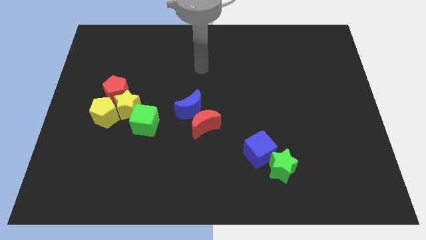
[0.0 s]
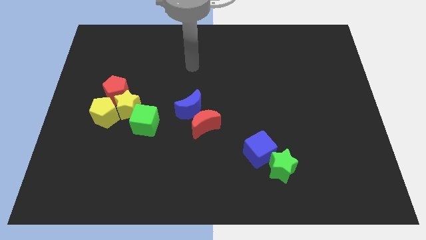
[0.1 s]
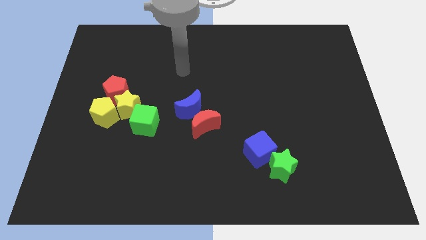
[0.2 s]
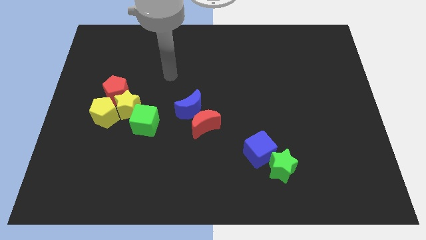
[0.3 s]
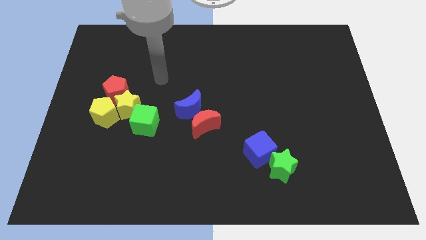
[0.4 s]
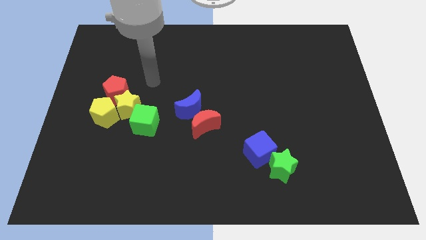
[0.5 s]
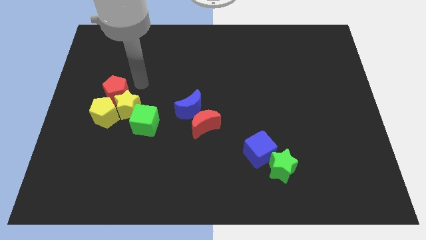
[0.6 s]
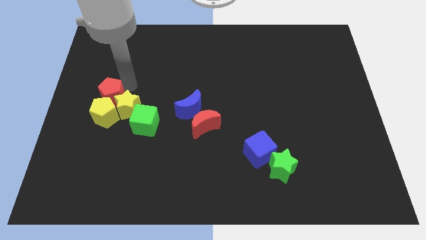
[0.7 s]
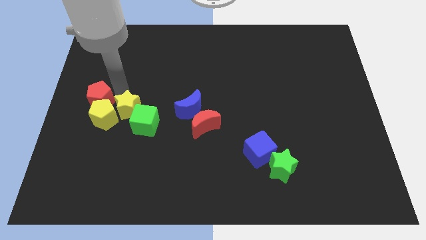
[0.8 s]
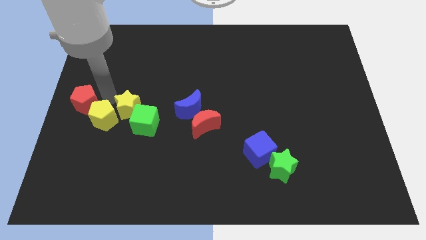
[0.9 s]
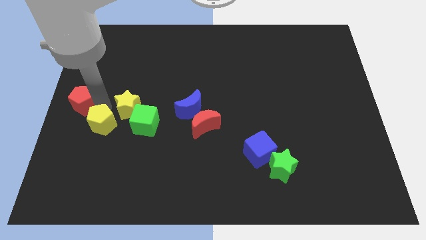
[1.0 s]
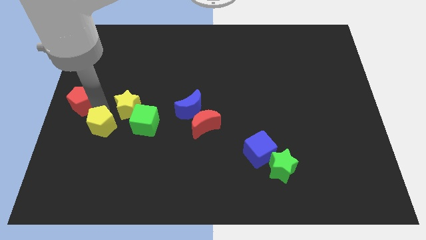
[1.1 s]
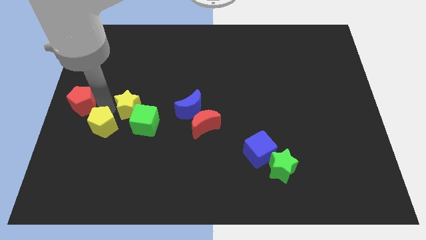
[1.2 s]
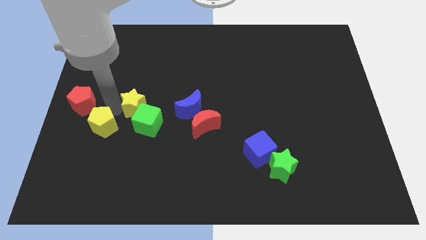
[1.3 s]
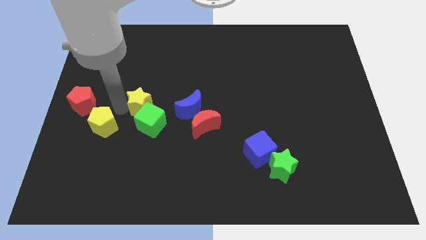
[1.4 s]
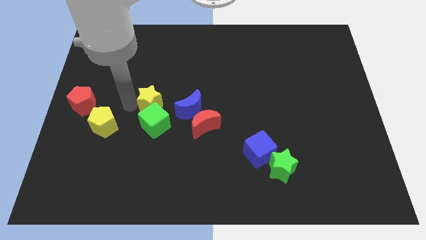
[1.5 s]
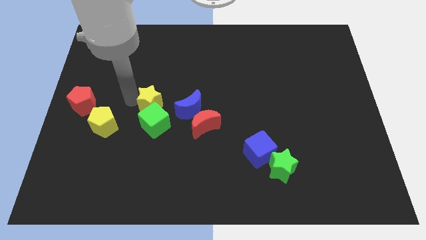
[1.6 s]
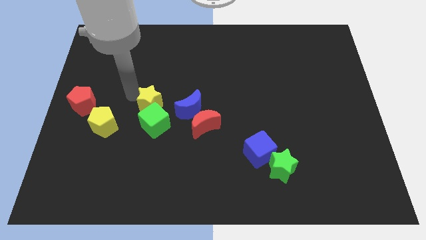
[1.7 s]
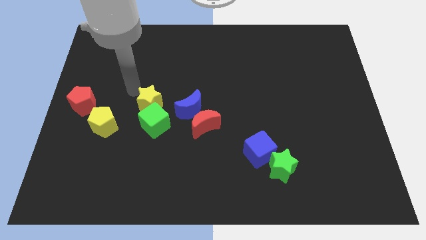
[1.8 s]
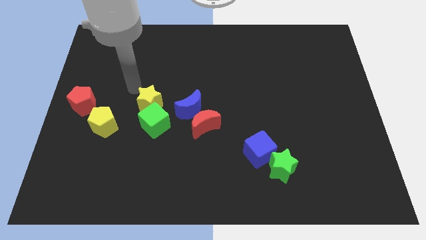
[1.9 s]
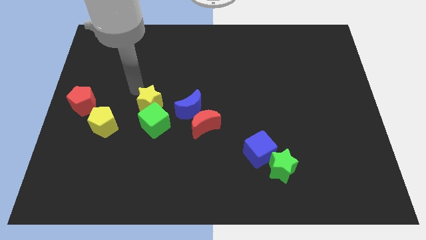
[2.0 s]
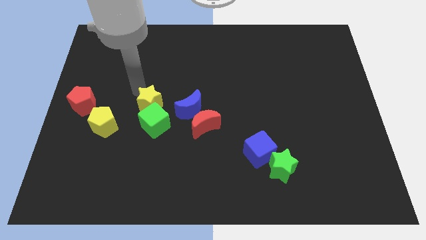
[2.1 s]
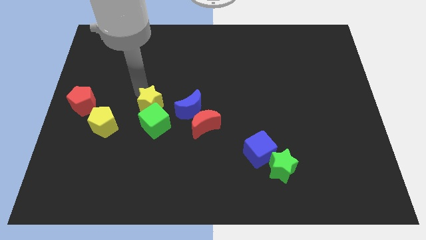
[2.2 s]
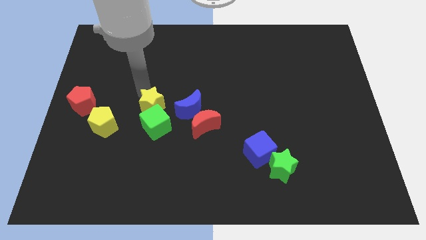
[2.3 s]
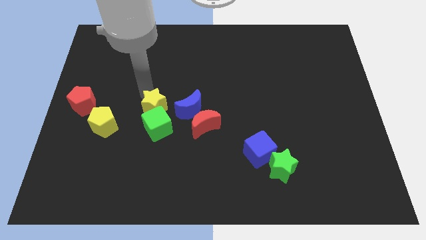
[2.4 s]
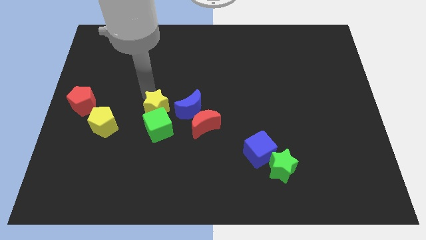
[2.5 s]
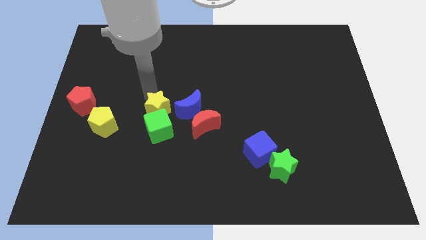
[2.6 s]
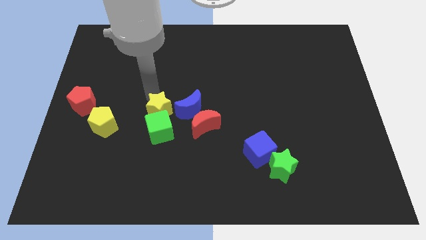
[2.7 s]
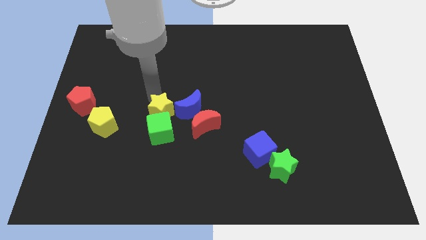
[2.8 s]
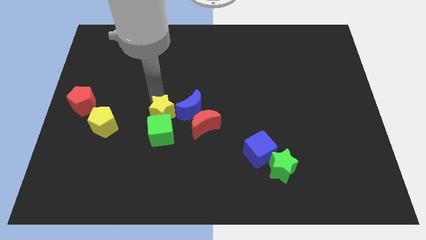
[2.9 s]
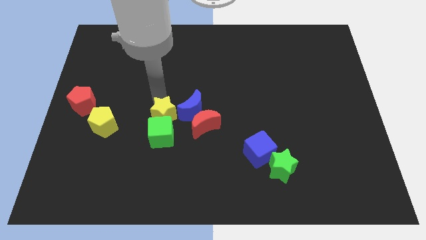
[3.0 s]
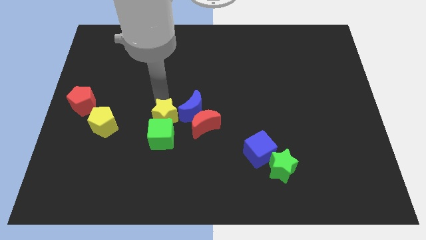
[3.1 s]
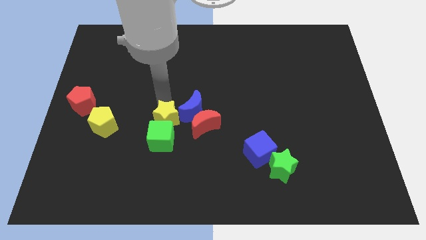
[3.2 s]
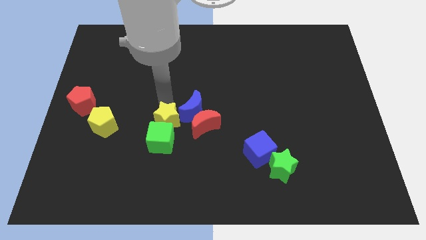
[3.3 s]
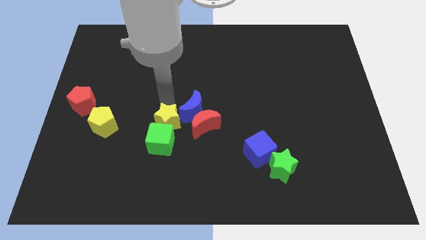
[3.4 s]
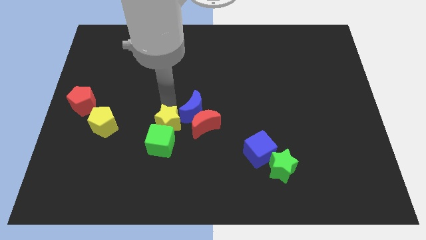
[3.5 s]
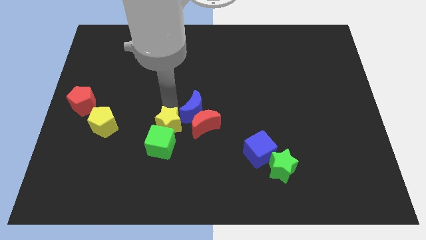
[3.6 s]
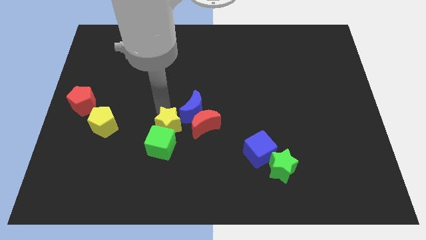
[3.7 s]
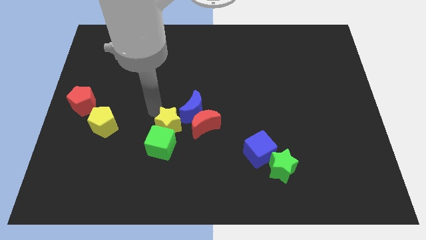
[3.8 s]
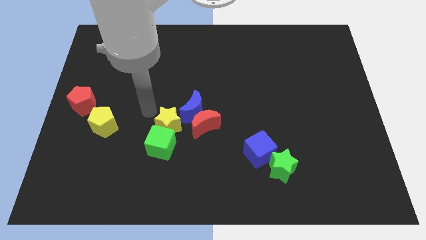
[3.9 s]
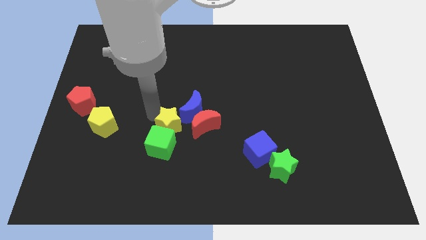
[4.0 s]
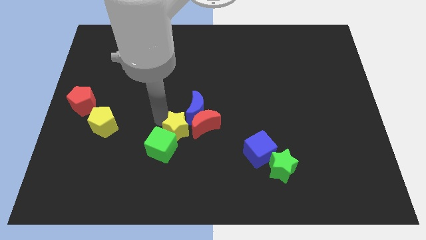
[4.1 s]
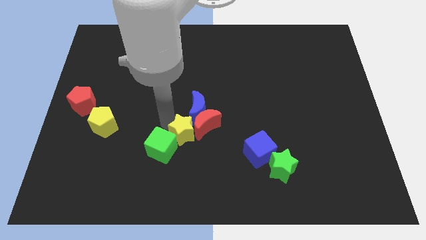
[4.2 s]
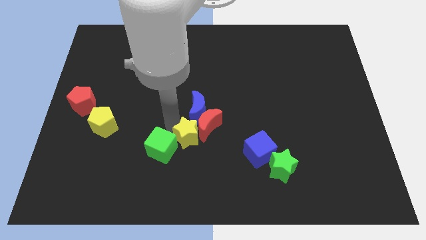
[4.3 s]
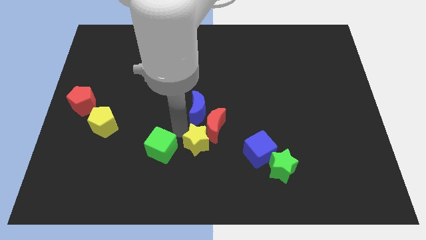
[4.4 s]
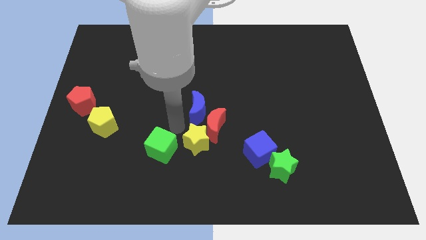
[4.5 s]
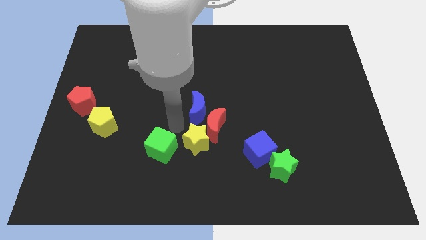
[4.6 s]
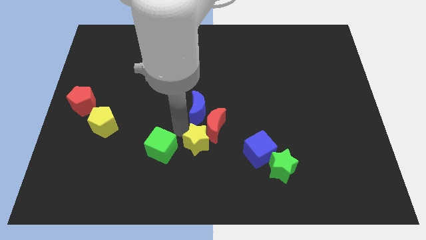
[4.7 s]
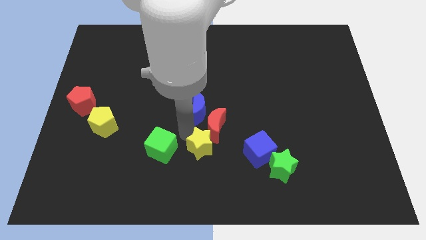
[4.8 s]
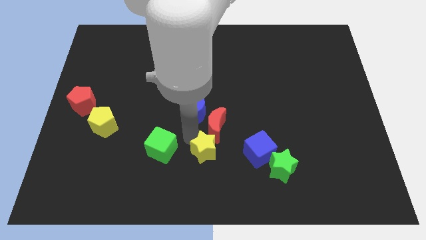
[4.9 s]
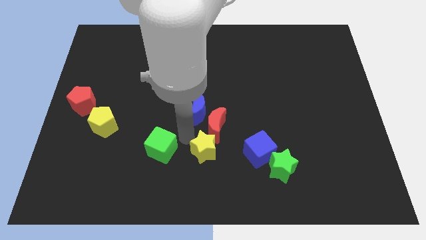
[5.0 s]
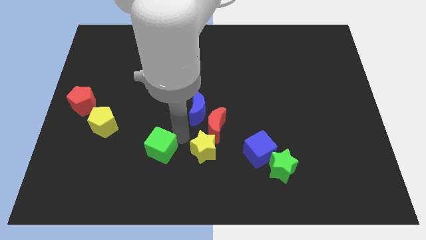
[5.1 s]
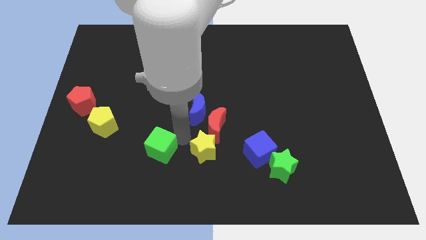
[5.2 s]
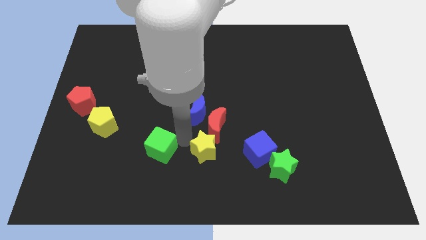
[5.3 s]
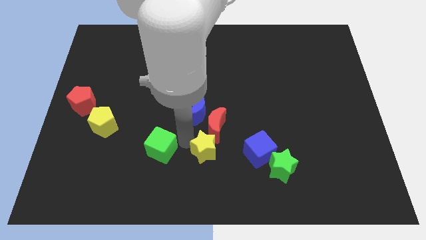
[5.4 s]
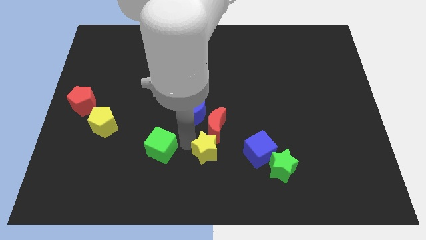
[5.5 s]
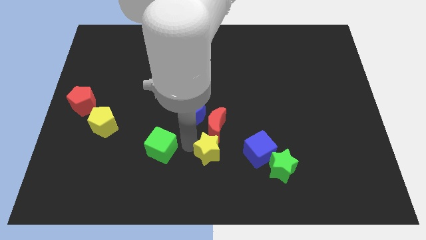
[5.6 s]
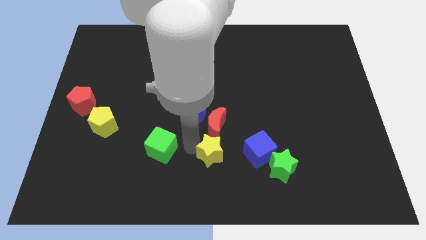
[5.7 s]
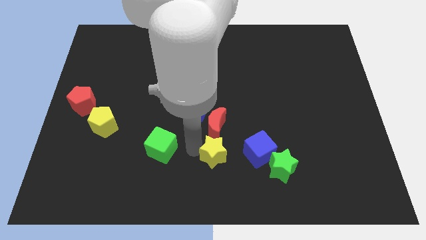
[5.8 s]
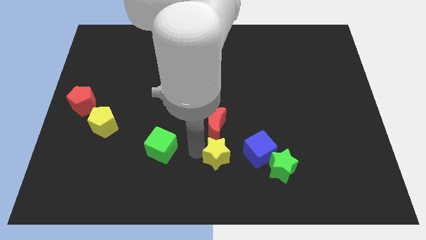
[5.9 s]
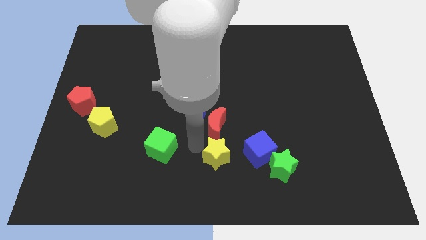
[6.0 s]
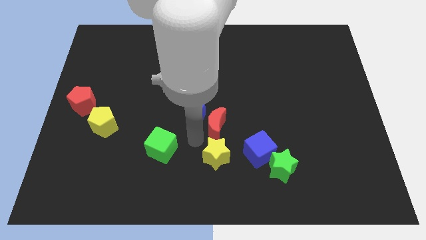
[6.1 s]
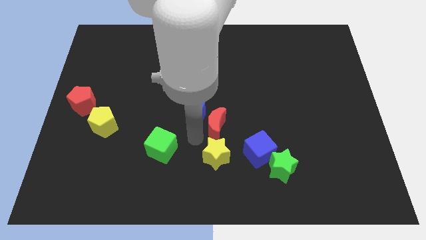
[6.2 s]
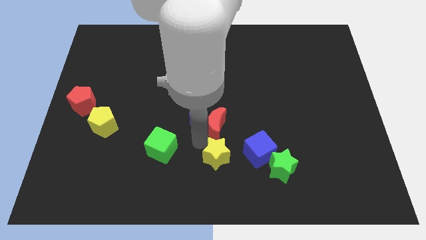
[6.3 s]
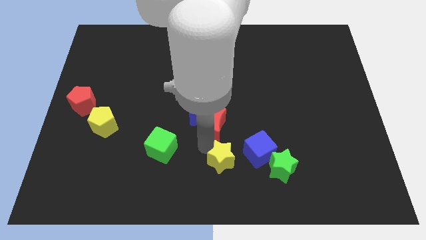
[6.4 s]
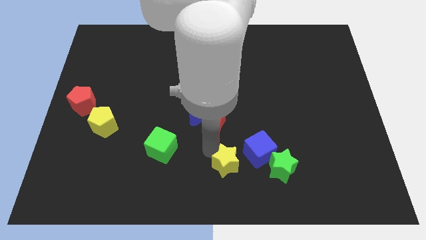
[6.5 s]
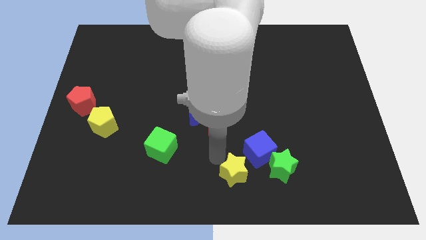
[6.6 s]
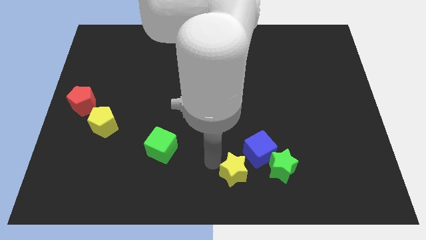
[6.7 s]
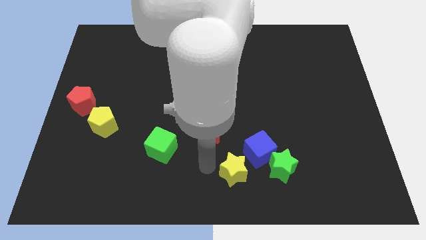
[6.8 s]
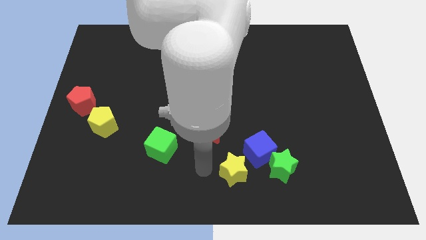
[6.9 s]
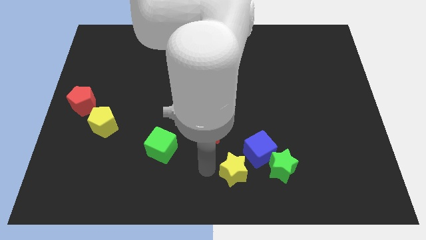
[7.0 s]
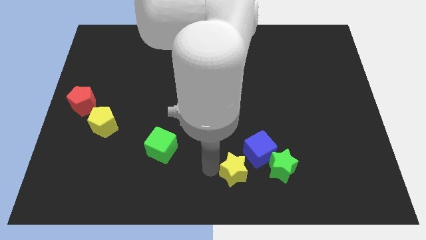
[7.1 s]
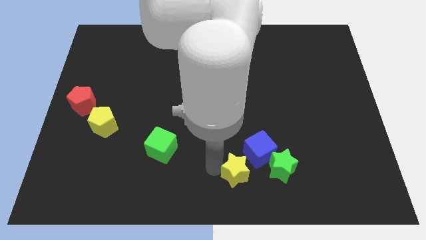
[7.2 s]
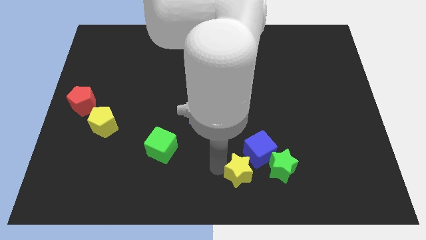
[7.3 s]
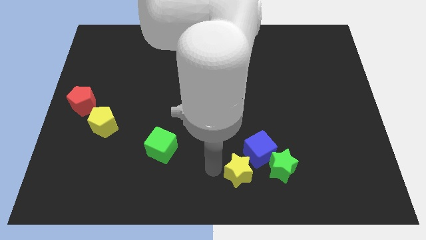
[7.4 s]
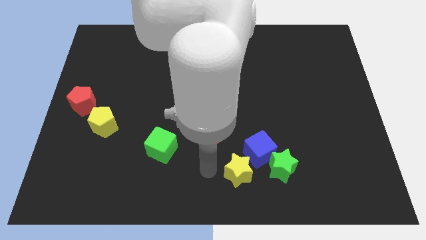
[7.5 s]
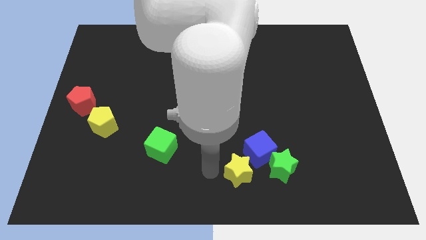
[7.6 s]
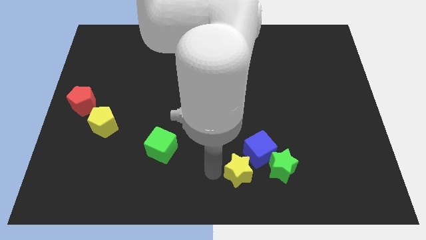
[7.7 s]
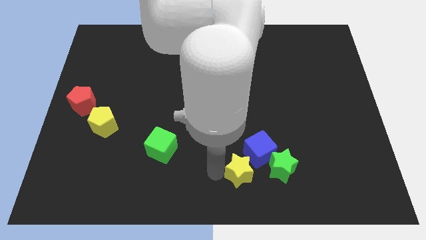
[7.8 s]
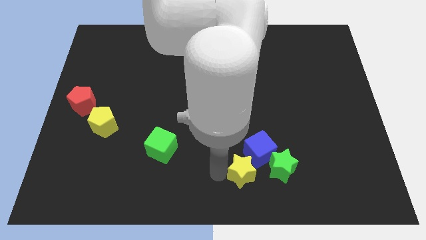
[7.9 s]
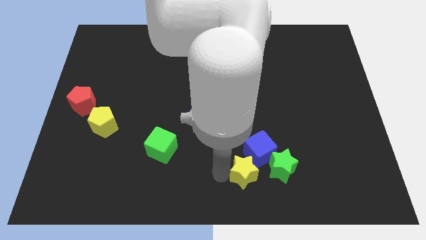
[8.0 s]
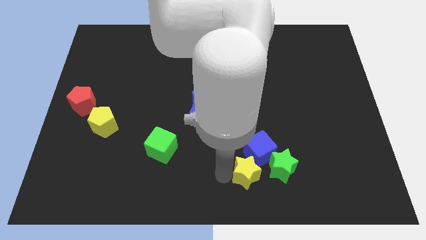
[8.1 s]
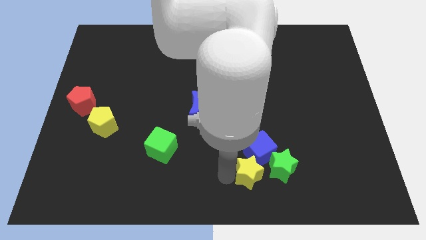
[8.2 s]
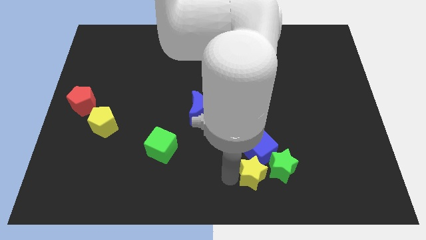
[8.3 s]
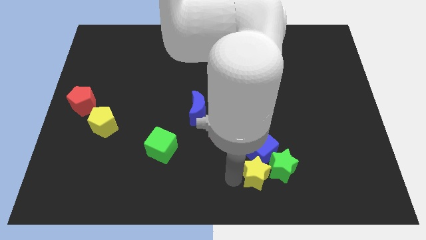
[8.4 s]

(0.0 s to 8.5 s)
move the yellow star next to the green star

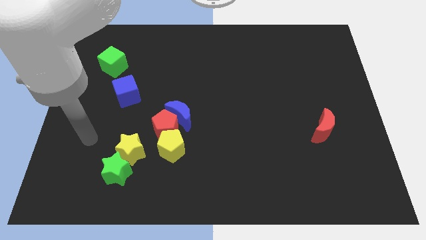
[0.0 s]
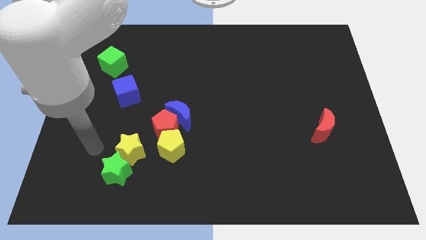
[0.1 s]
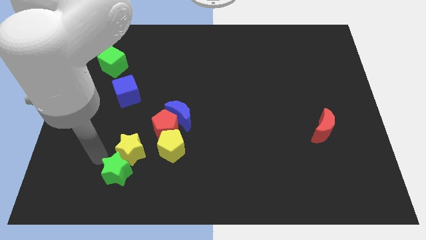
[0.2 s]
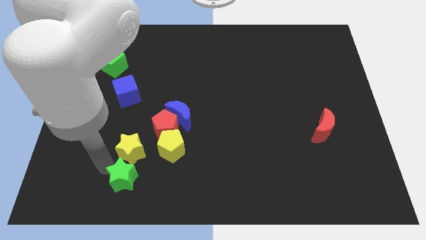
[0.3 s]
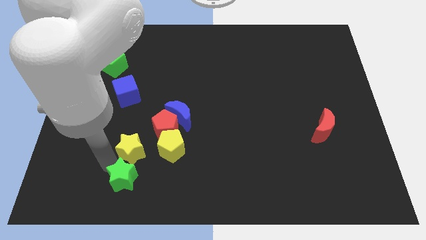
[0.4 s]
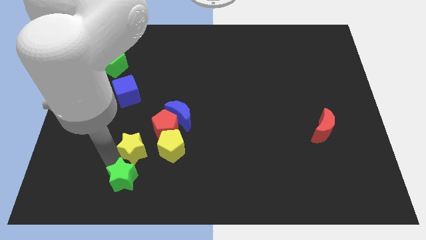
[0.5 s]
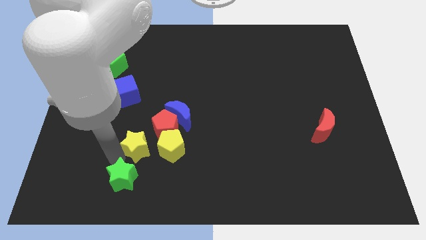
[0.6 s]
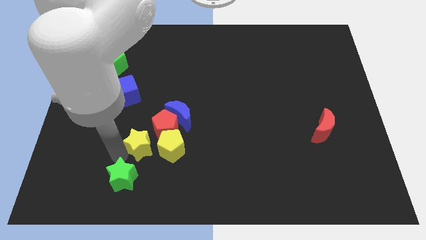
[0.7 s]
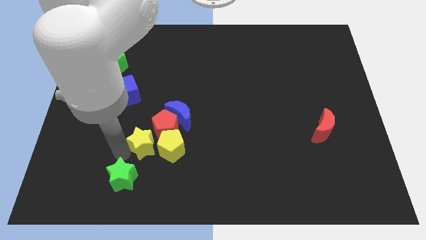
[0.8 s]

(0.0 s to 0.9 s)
slide the yellow star towards the red pentagon
